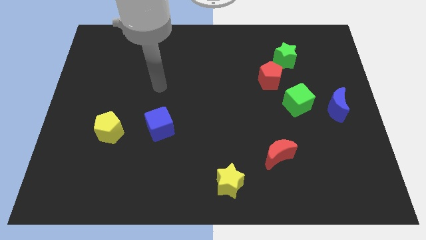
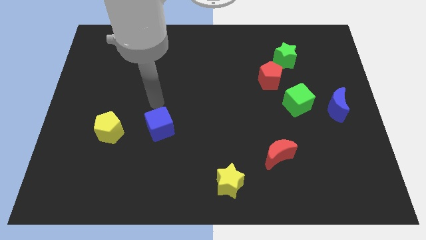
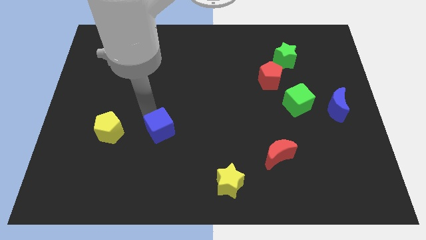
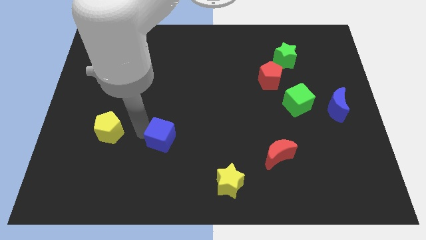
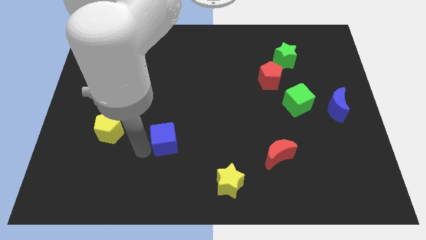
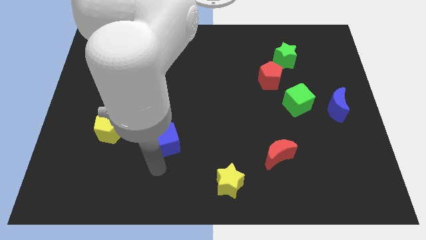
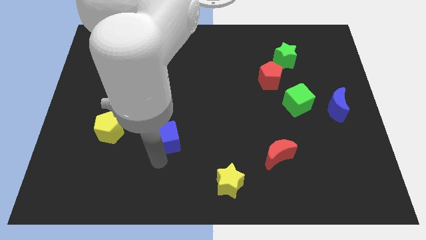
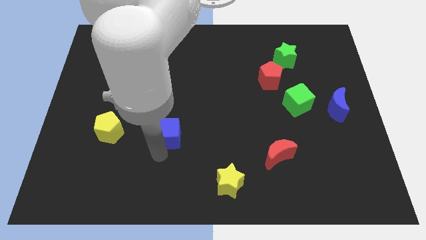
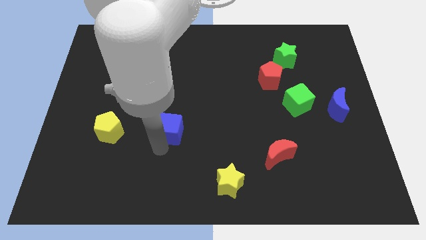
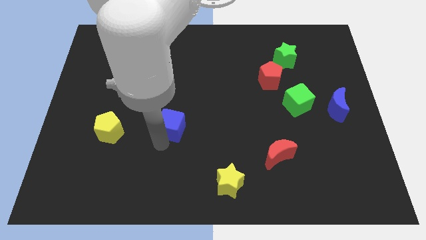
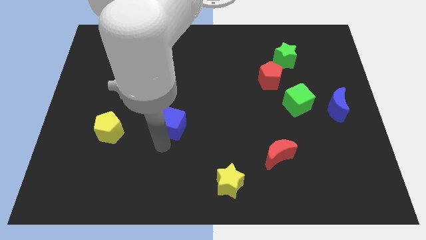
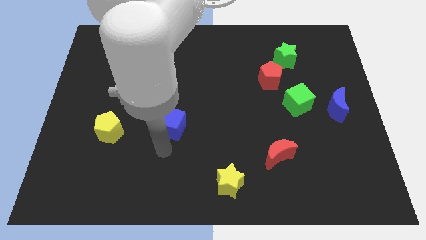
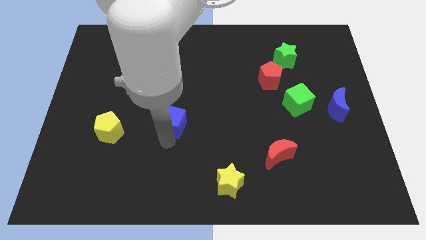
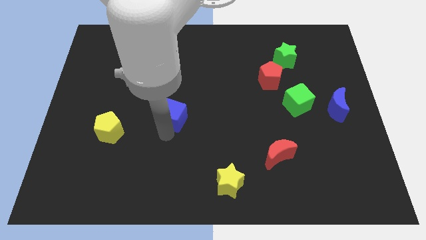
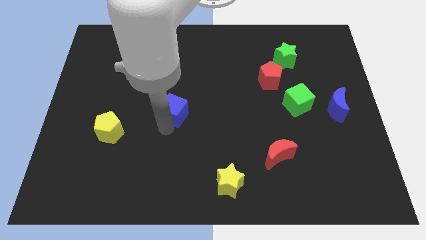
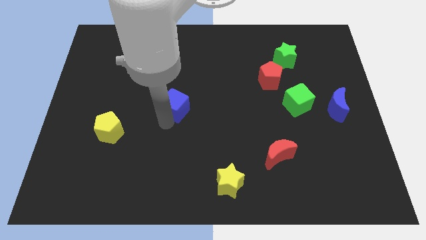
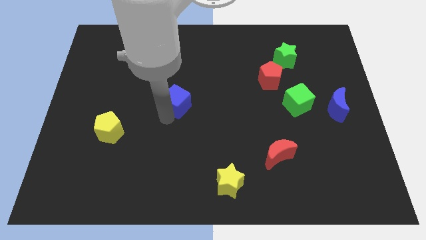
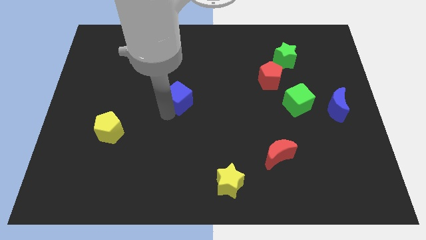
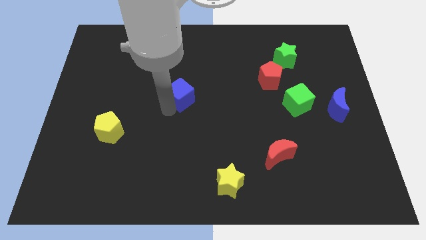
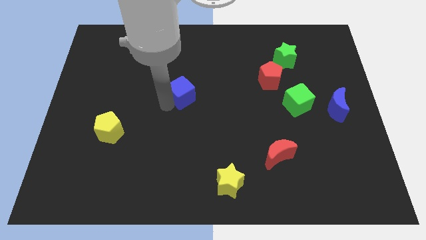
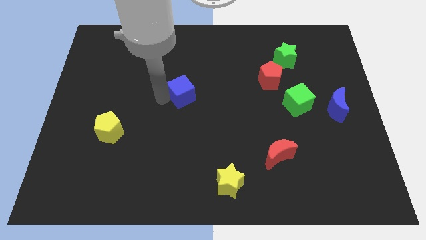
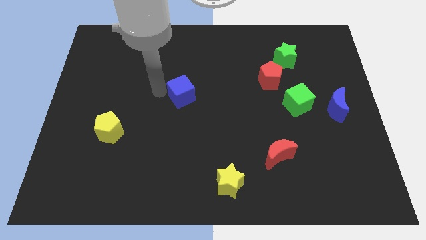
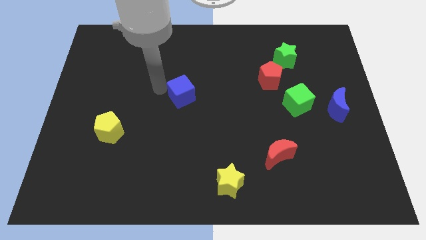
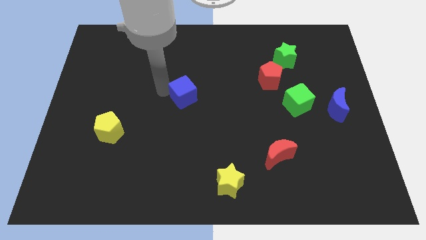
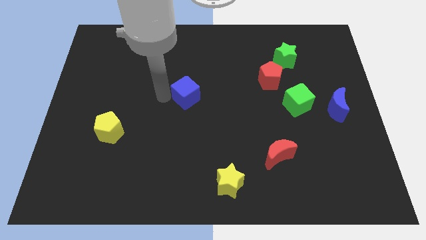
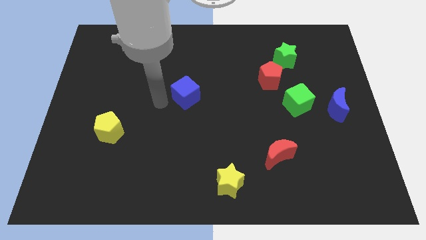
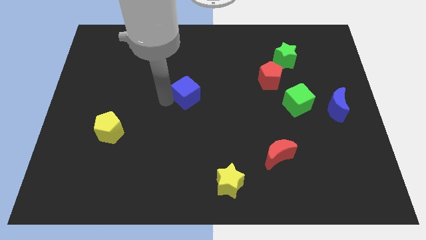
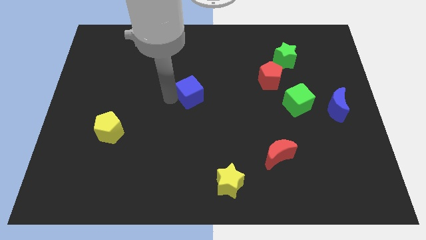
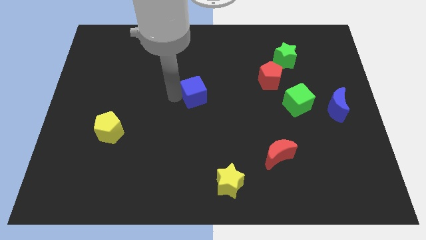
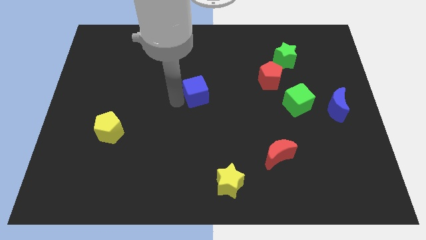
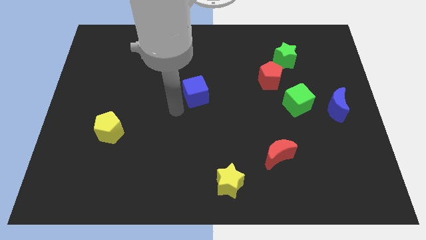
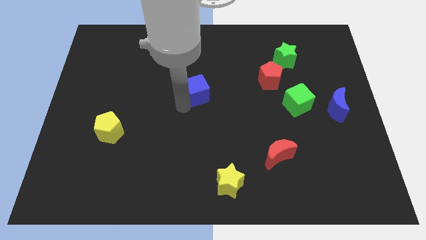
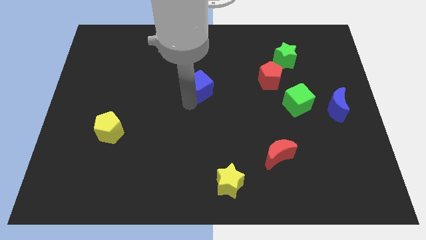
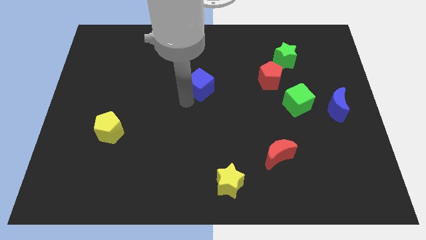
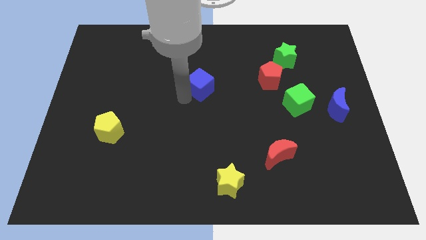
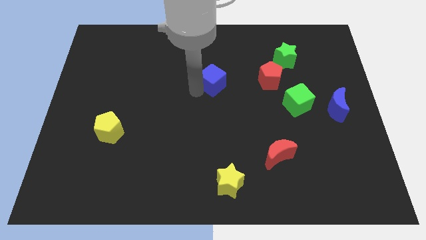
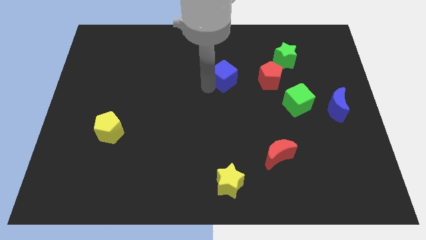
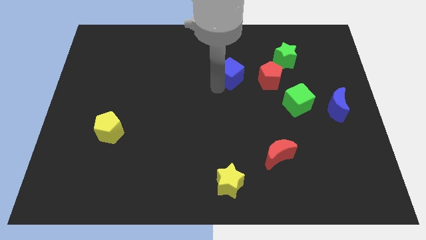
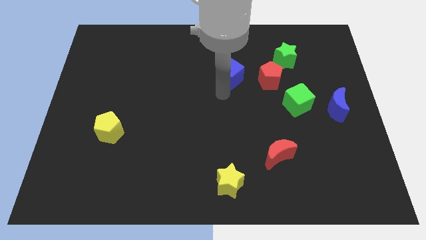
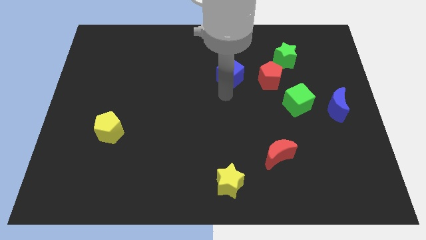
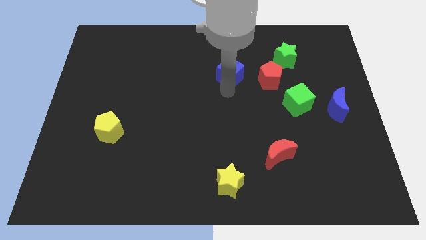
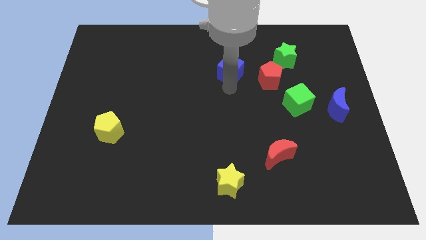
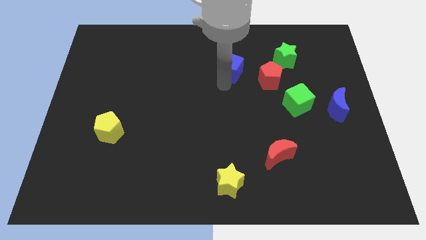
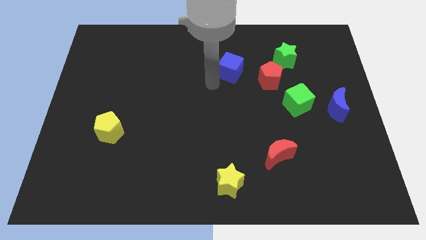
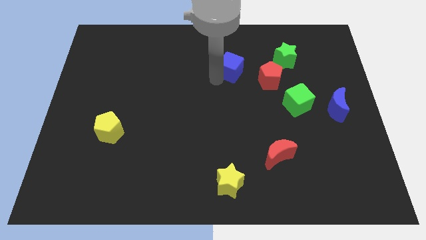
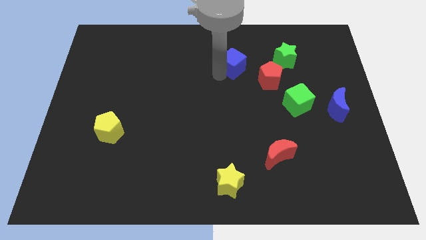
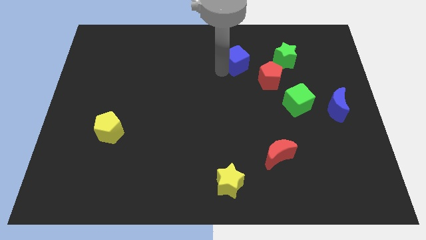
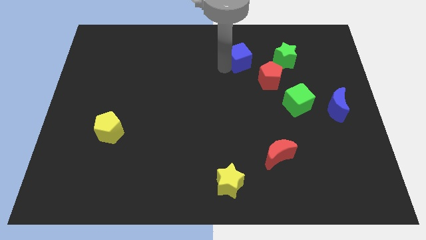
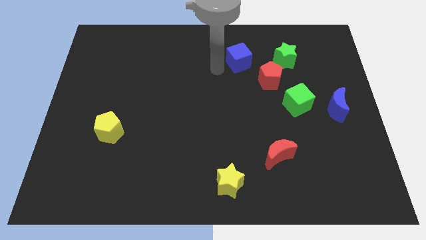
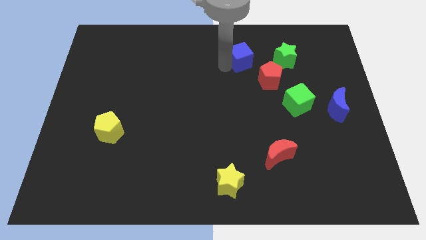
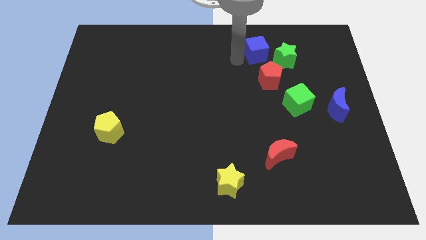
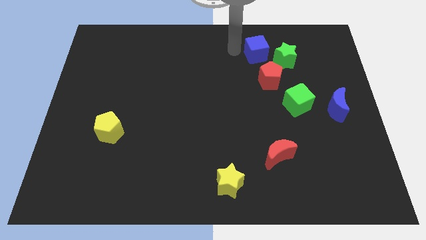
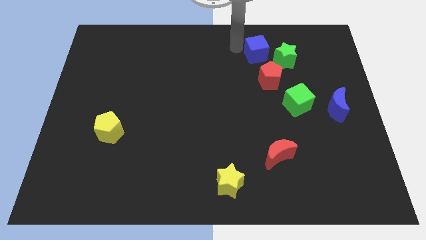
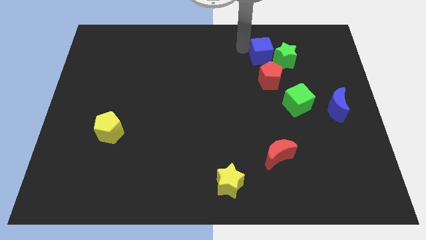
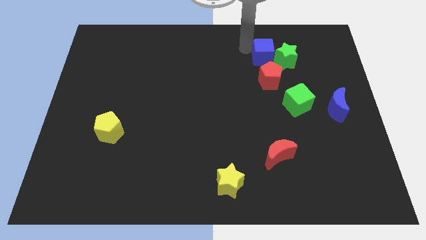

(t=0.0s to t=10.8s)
push the blue cube to the green star

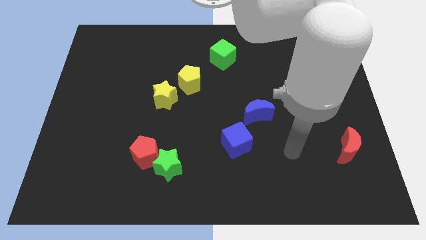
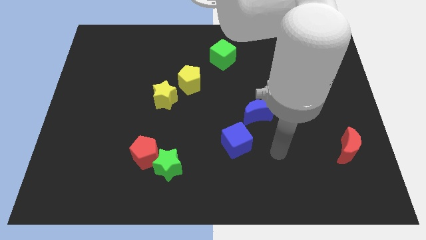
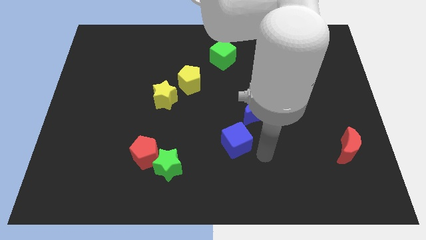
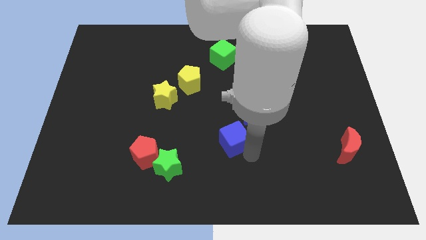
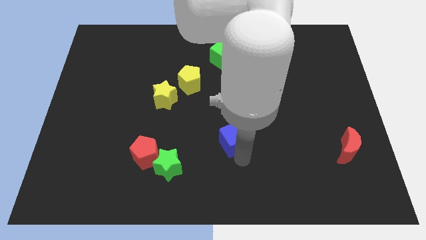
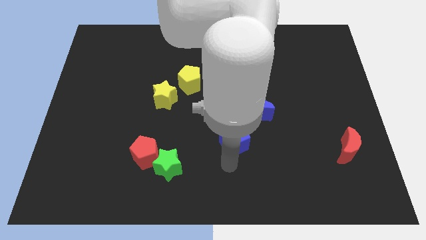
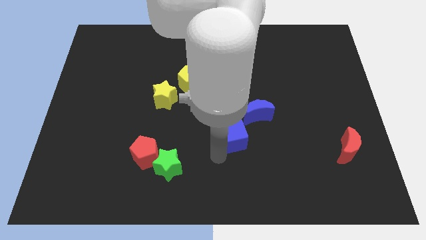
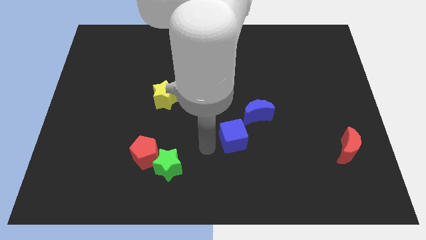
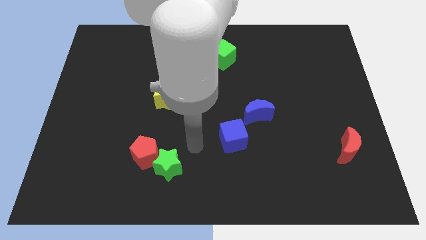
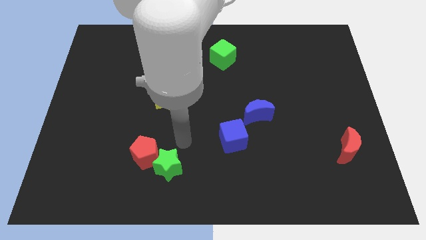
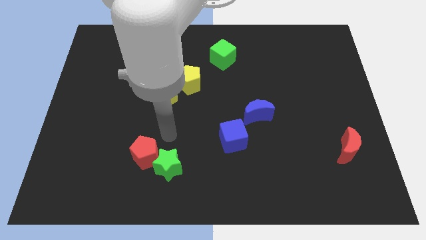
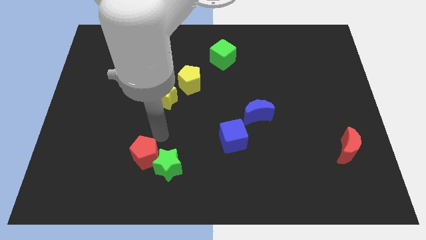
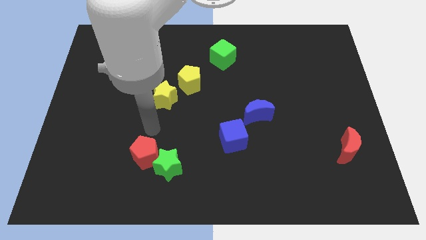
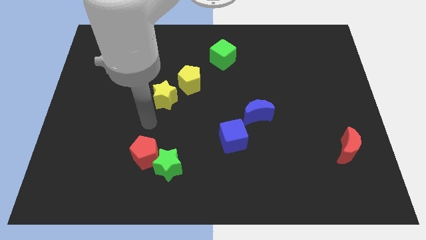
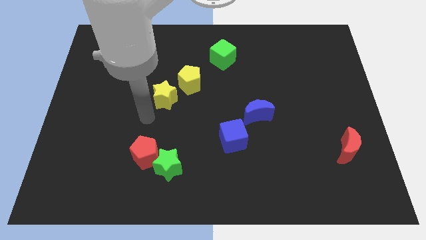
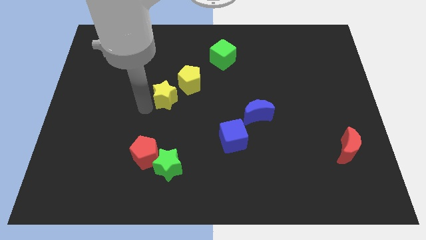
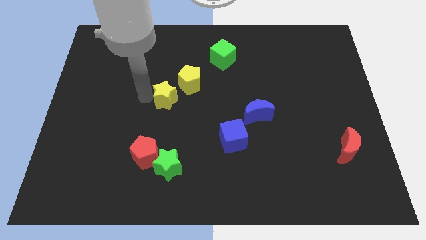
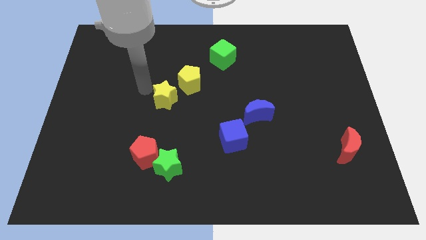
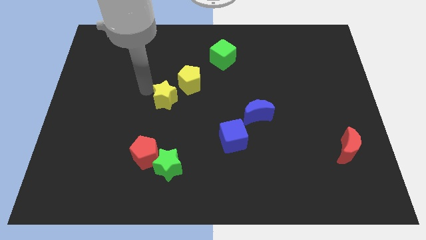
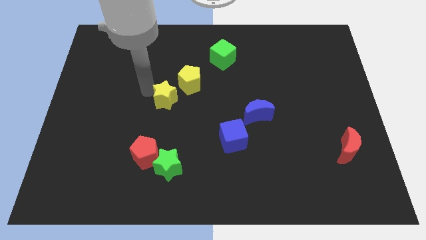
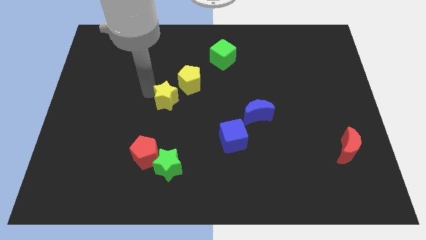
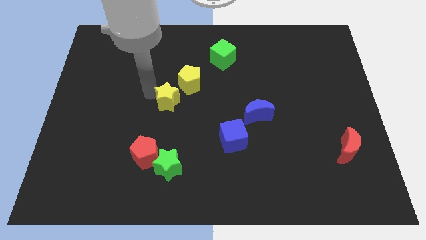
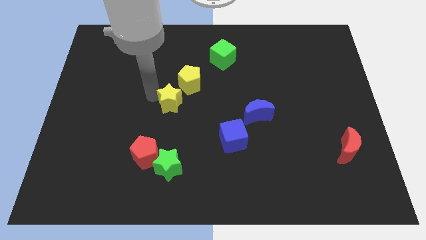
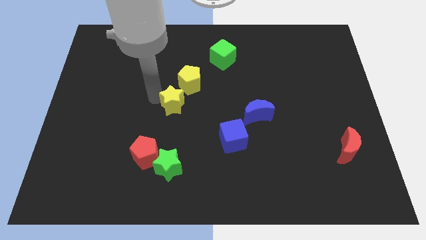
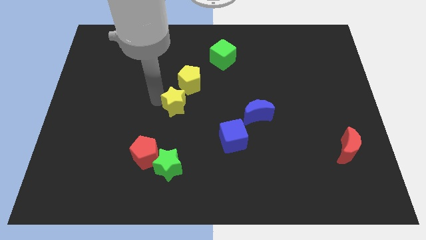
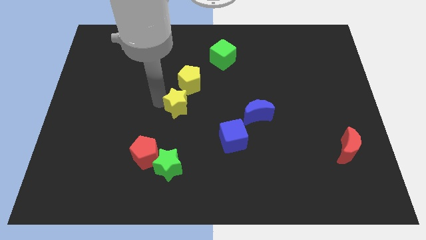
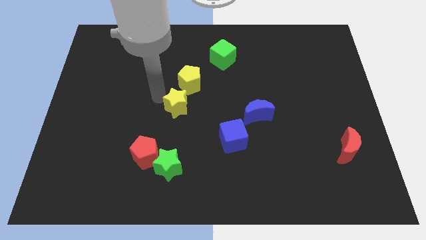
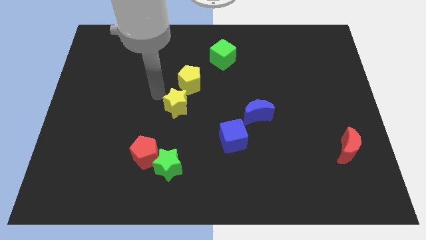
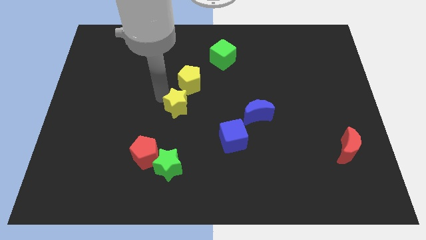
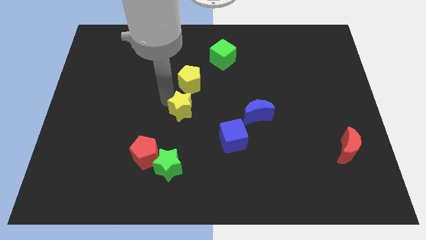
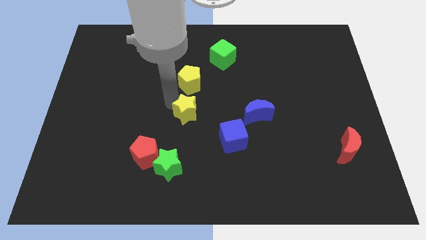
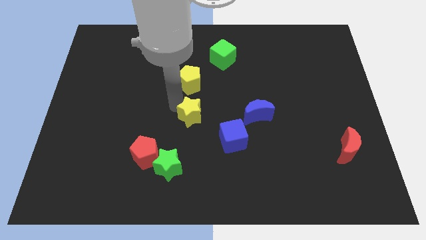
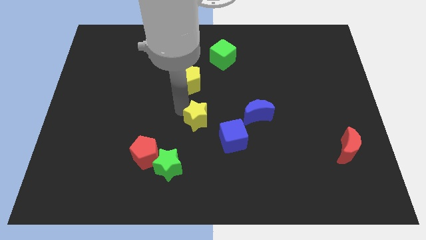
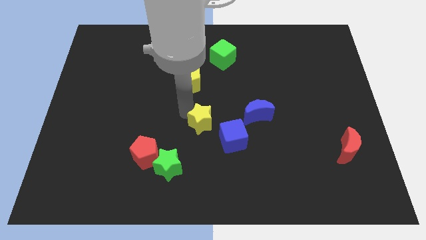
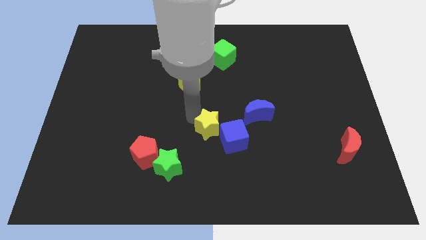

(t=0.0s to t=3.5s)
push the yellow star to the blue cube
